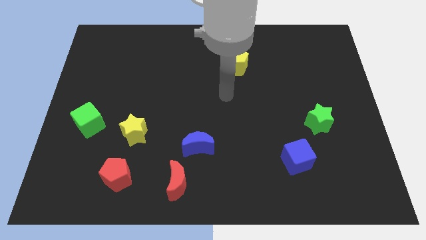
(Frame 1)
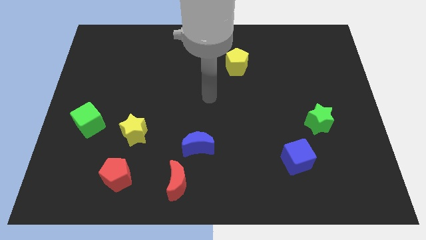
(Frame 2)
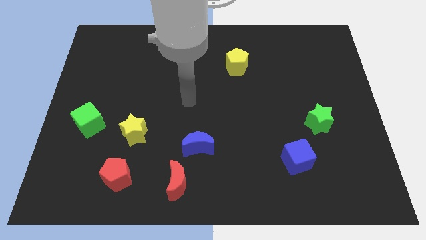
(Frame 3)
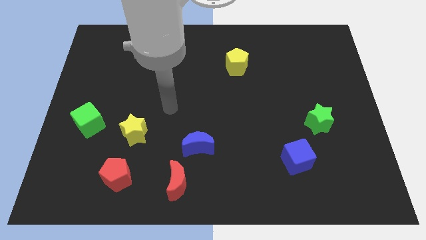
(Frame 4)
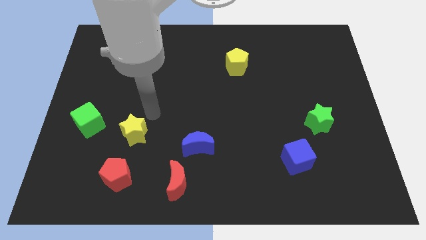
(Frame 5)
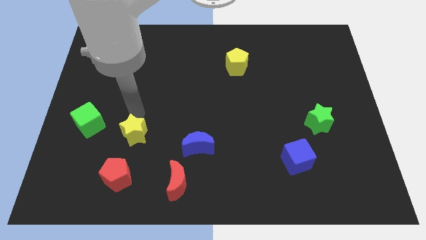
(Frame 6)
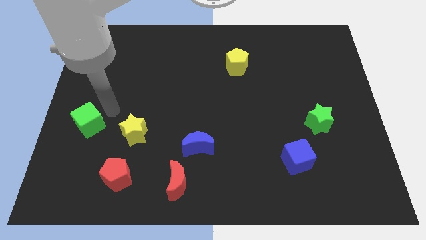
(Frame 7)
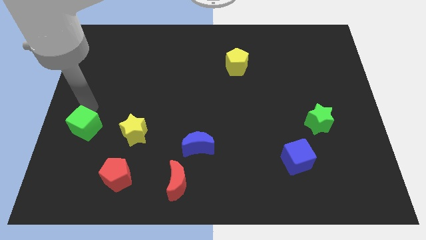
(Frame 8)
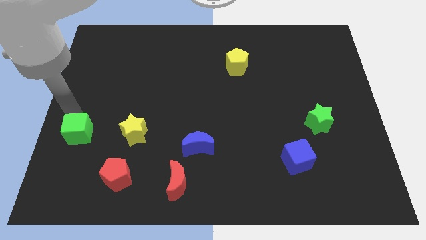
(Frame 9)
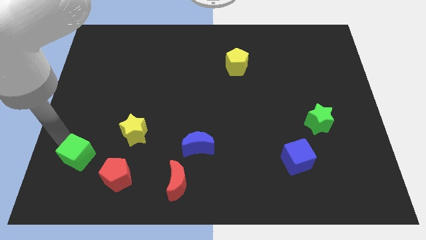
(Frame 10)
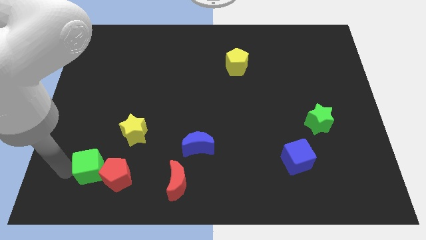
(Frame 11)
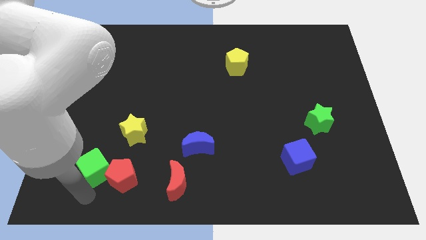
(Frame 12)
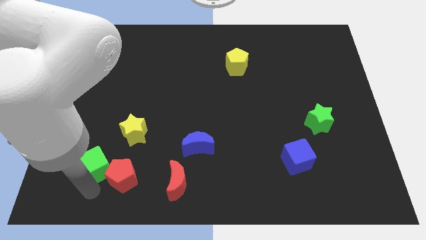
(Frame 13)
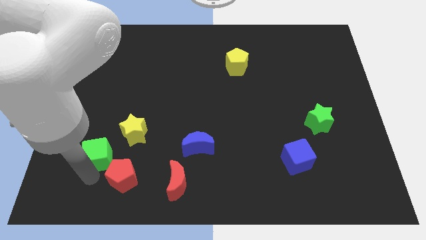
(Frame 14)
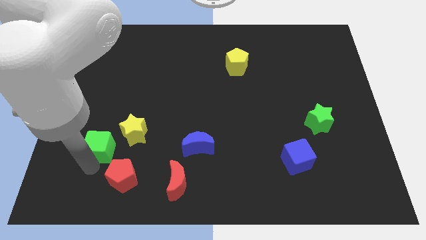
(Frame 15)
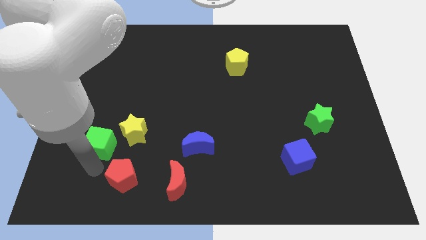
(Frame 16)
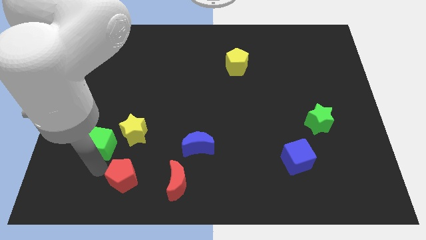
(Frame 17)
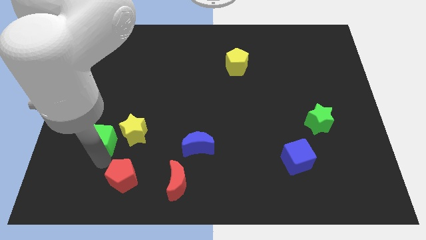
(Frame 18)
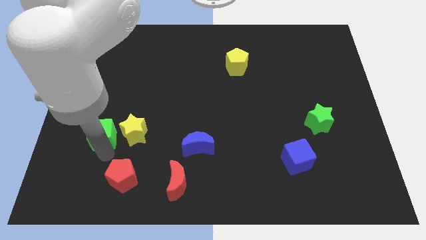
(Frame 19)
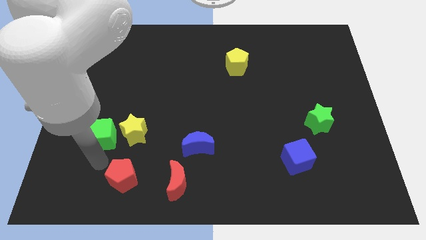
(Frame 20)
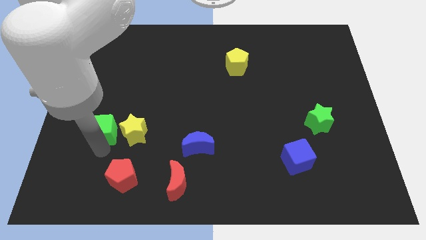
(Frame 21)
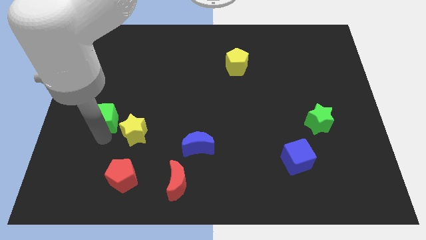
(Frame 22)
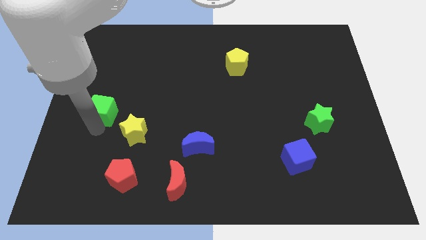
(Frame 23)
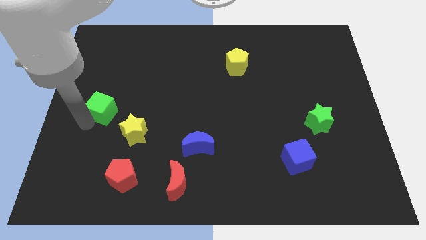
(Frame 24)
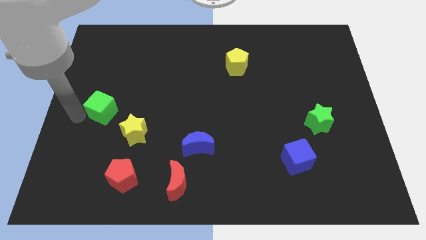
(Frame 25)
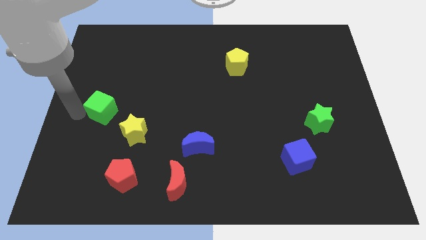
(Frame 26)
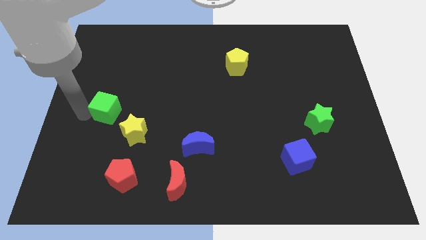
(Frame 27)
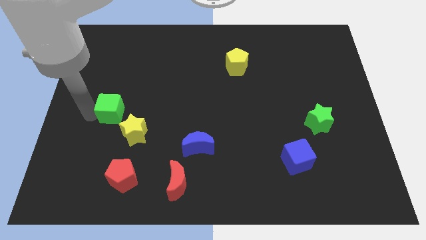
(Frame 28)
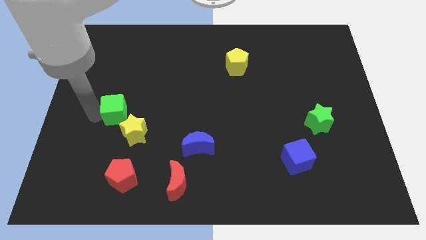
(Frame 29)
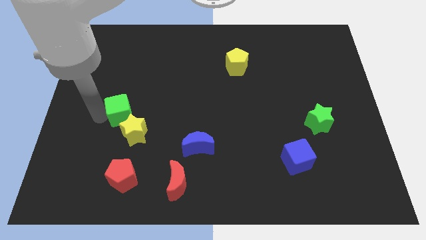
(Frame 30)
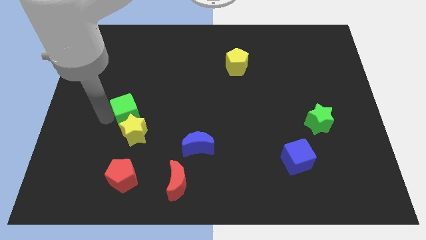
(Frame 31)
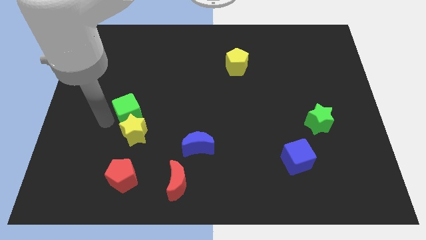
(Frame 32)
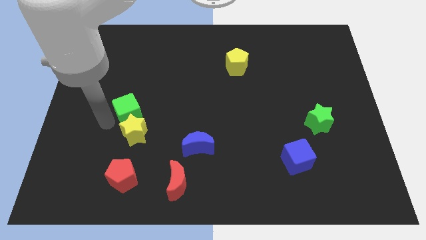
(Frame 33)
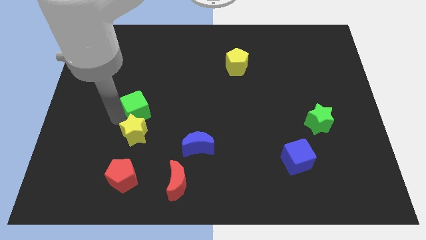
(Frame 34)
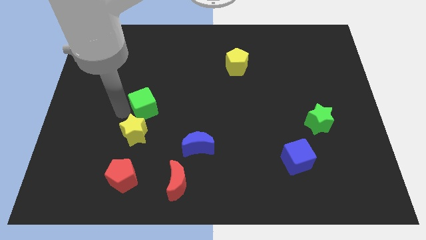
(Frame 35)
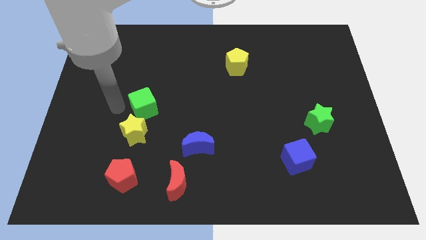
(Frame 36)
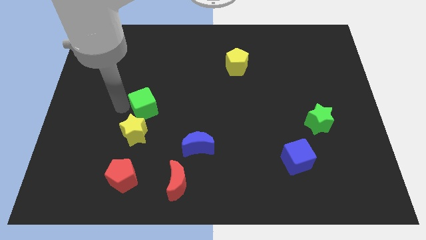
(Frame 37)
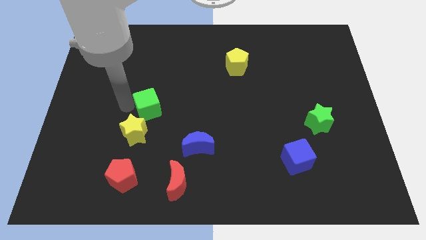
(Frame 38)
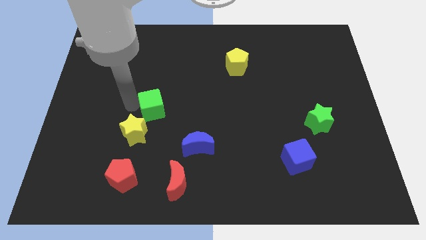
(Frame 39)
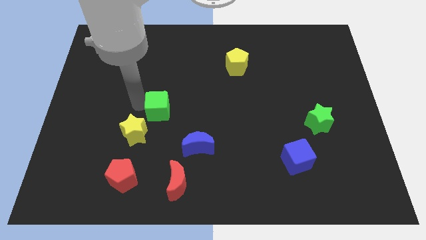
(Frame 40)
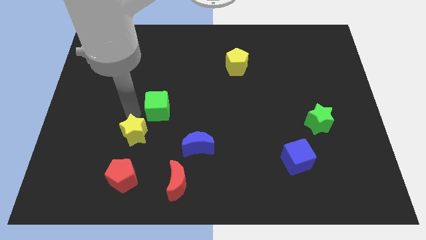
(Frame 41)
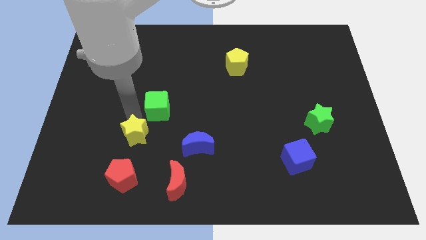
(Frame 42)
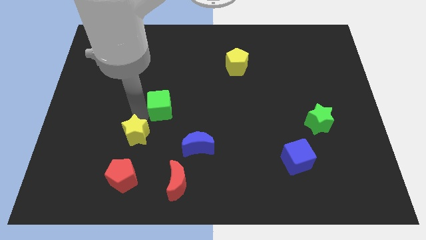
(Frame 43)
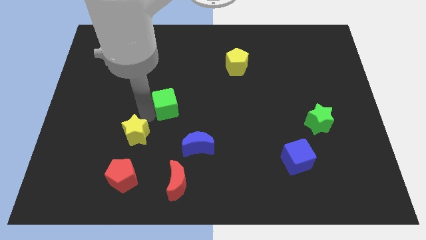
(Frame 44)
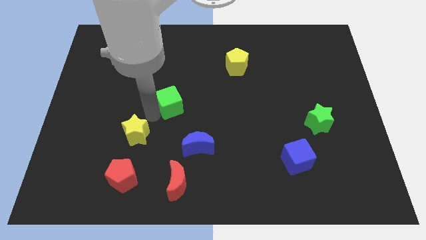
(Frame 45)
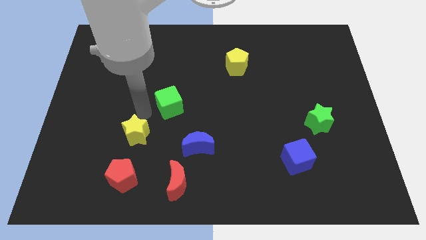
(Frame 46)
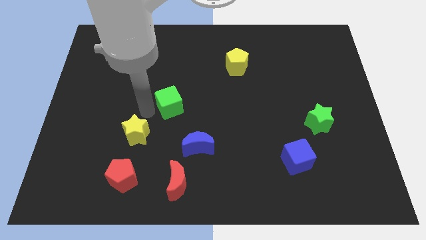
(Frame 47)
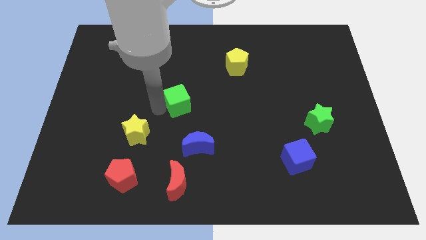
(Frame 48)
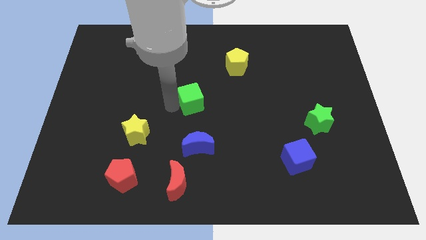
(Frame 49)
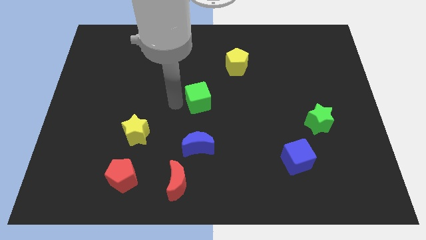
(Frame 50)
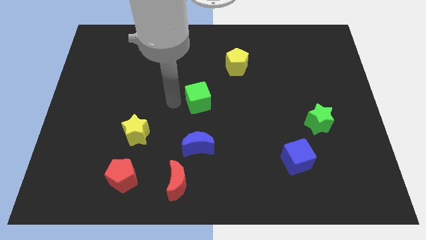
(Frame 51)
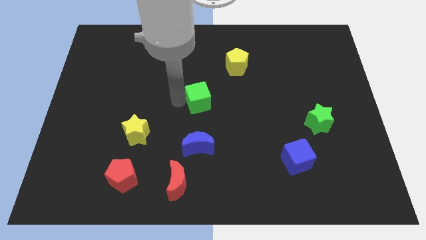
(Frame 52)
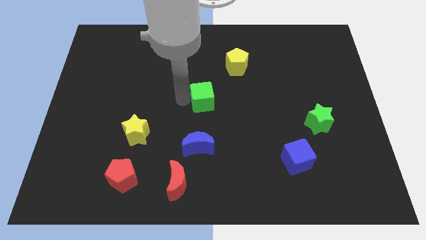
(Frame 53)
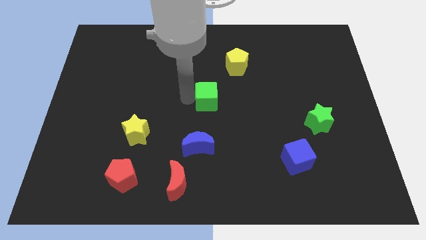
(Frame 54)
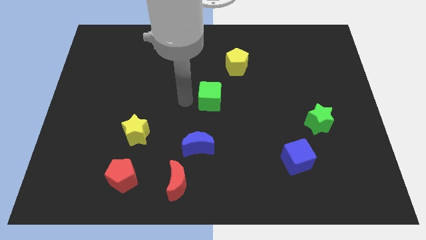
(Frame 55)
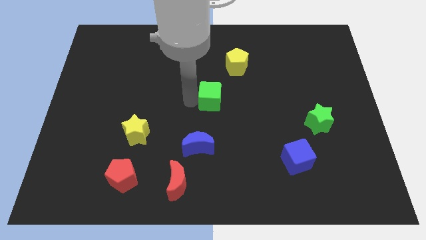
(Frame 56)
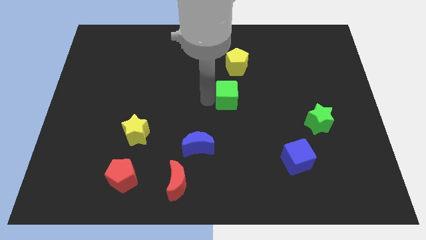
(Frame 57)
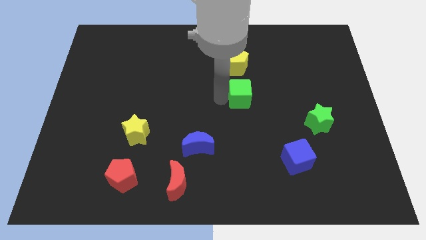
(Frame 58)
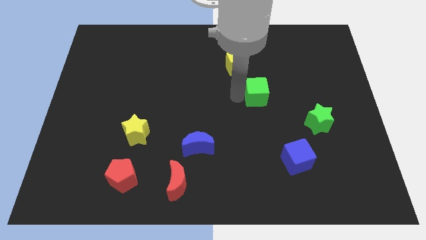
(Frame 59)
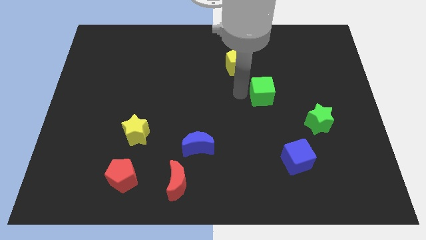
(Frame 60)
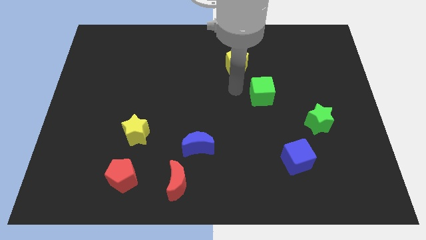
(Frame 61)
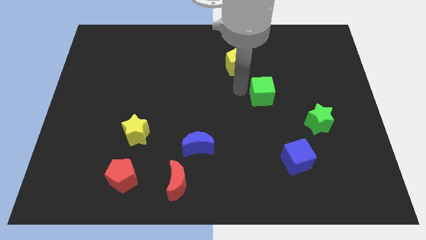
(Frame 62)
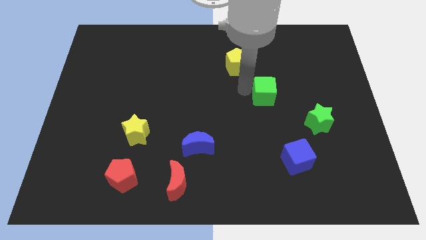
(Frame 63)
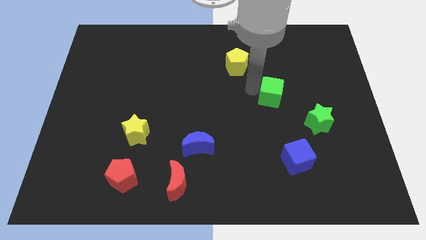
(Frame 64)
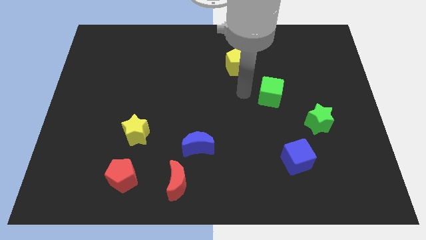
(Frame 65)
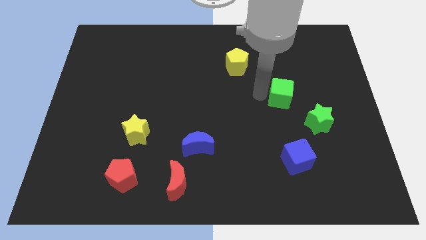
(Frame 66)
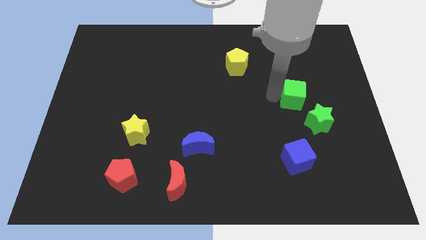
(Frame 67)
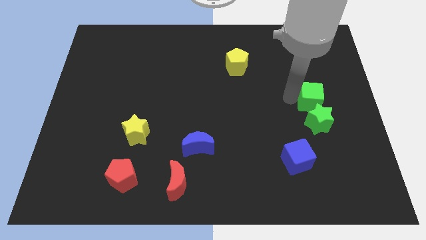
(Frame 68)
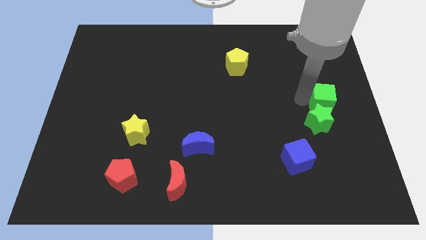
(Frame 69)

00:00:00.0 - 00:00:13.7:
put the green cube to the right side
